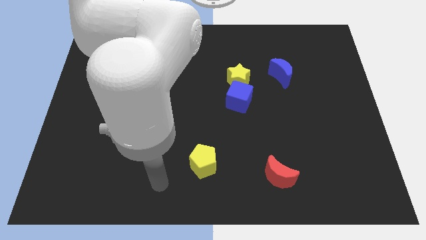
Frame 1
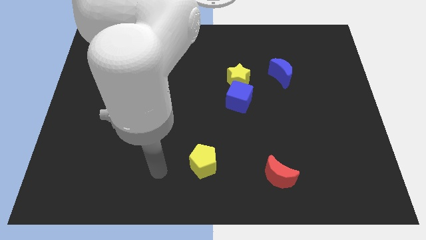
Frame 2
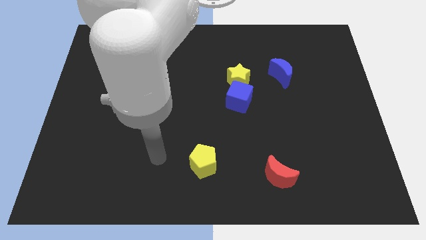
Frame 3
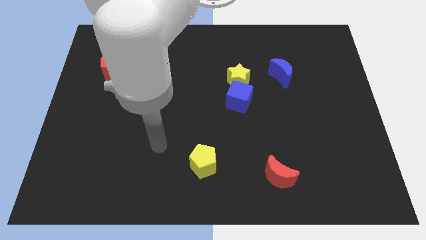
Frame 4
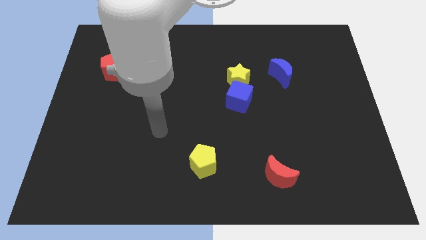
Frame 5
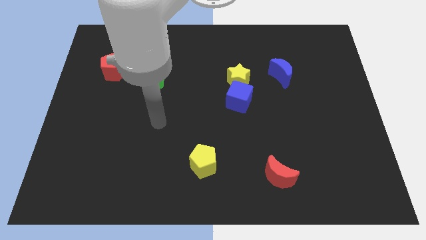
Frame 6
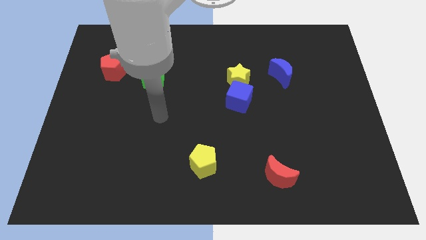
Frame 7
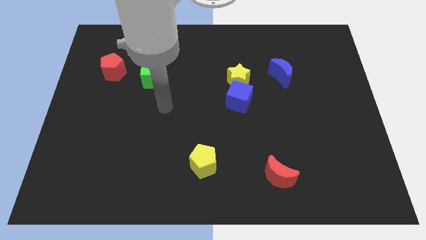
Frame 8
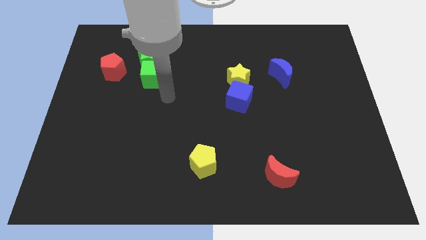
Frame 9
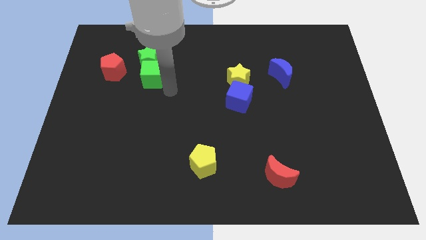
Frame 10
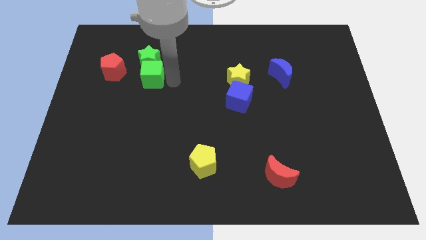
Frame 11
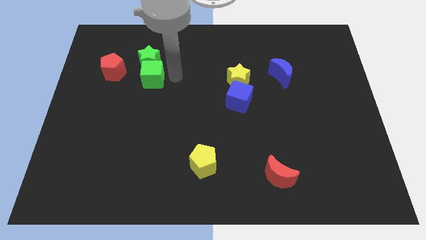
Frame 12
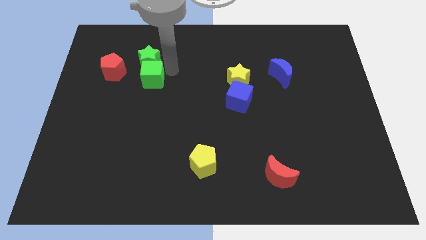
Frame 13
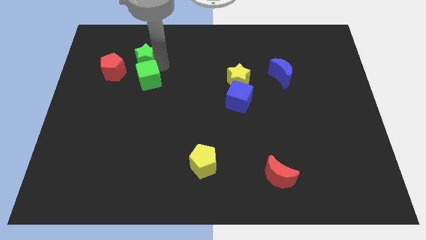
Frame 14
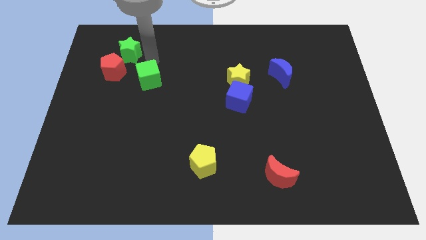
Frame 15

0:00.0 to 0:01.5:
separate the green cube from the green star

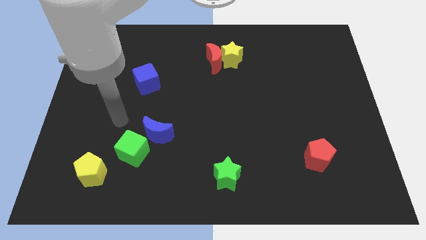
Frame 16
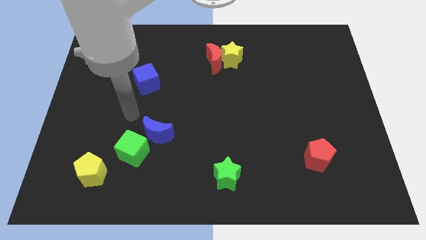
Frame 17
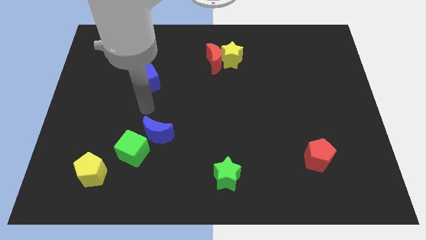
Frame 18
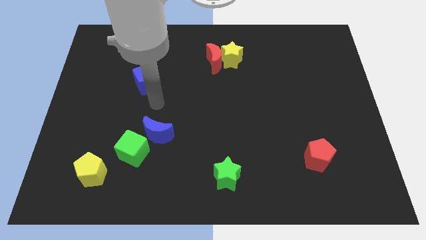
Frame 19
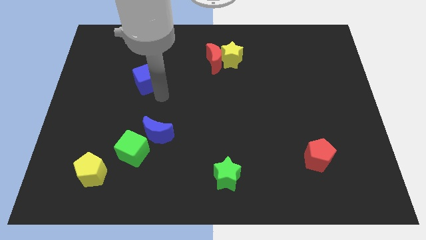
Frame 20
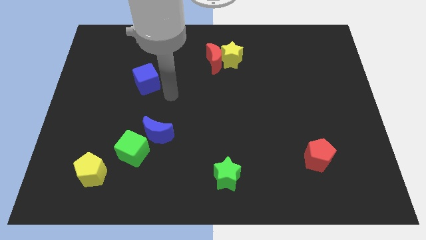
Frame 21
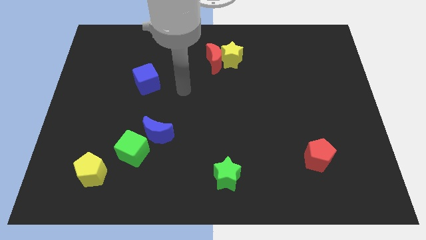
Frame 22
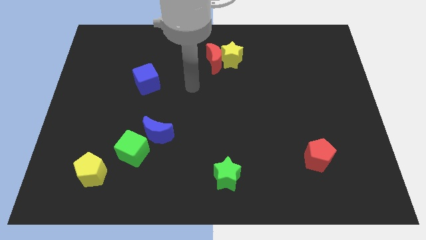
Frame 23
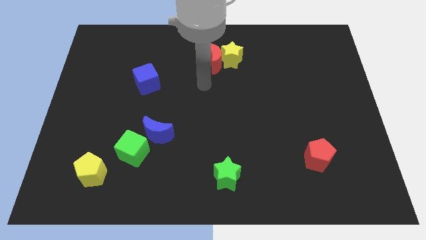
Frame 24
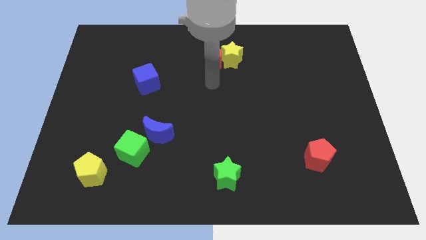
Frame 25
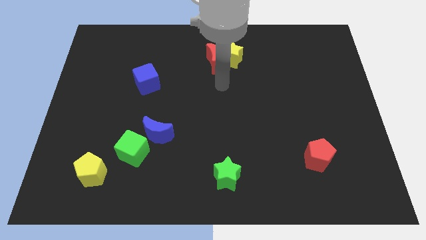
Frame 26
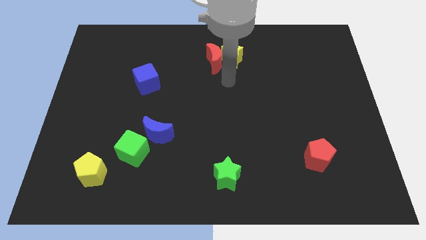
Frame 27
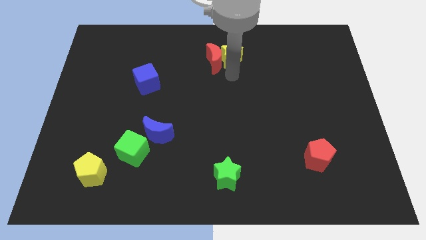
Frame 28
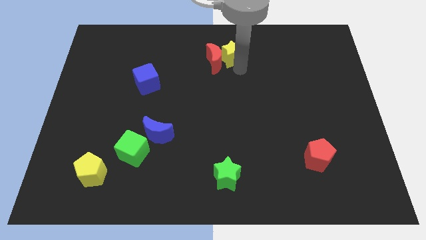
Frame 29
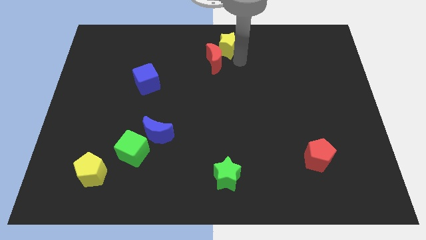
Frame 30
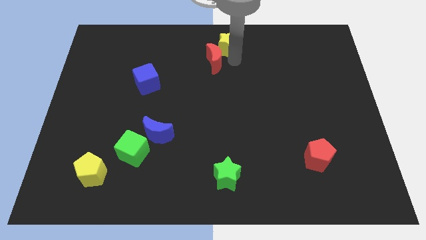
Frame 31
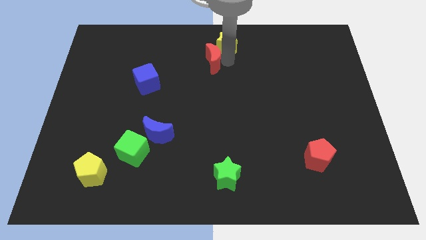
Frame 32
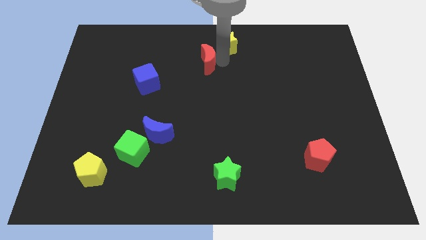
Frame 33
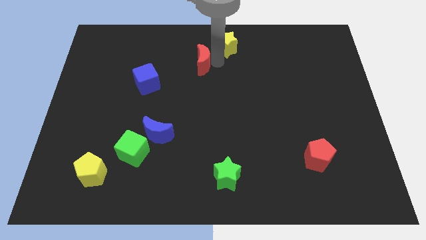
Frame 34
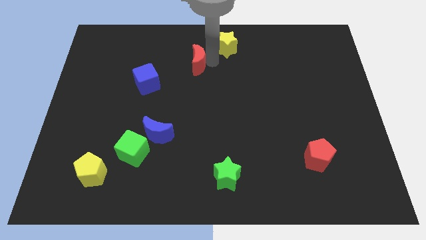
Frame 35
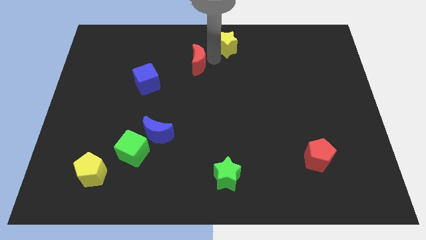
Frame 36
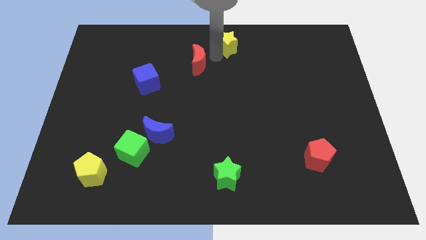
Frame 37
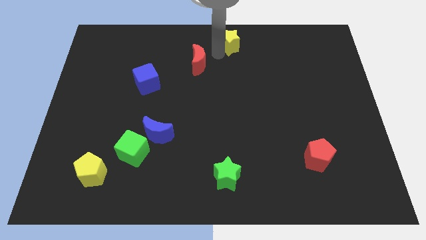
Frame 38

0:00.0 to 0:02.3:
move the red moon away from the yellow star

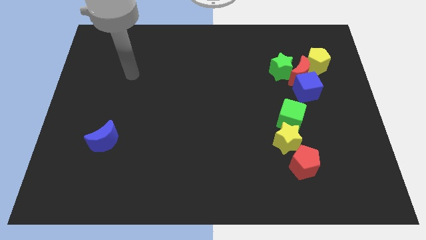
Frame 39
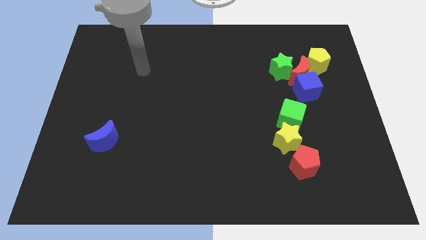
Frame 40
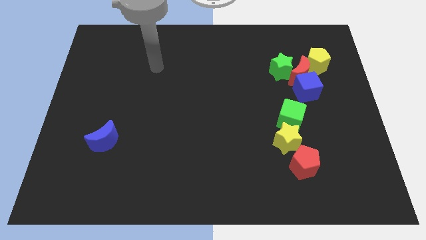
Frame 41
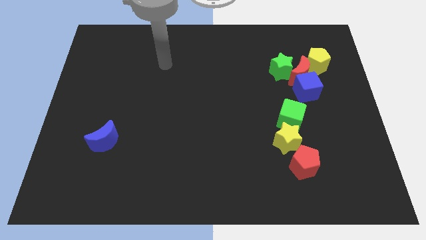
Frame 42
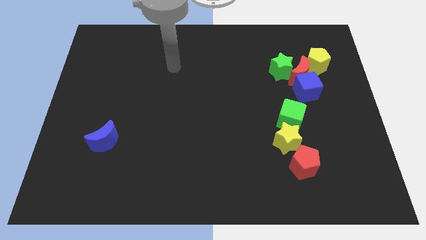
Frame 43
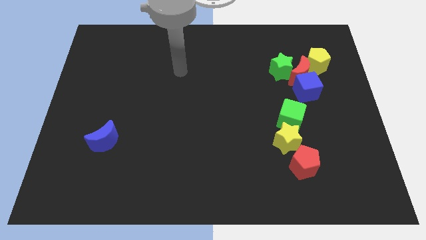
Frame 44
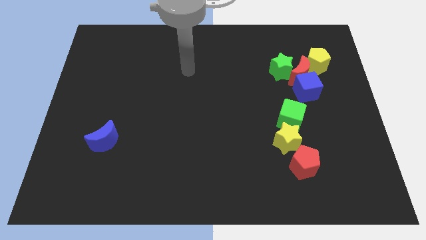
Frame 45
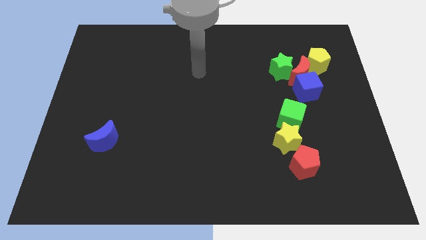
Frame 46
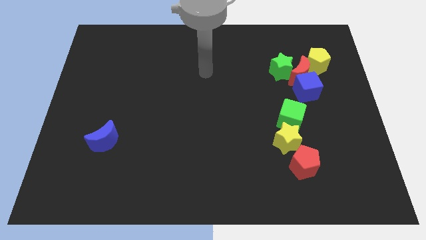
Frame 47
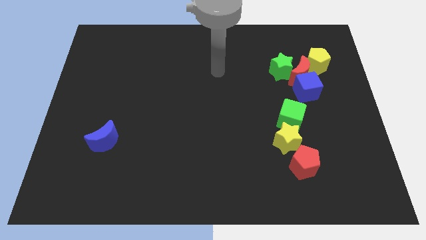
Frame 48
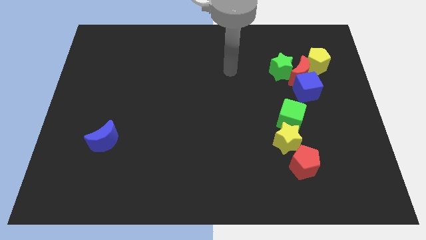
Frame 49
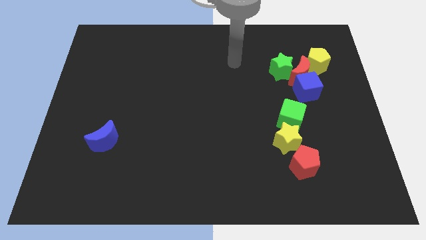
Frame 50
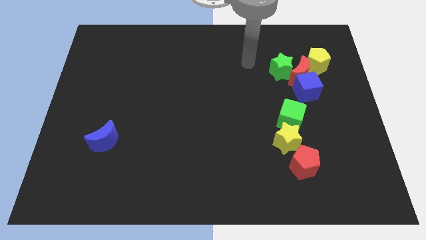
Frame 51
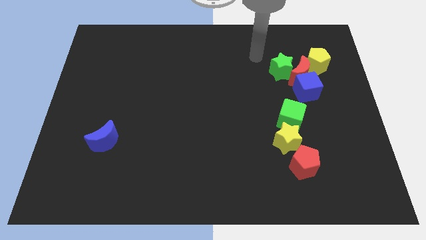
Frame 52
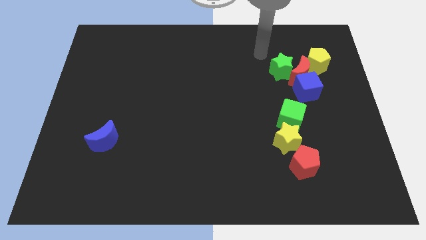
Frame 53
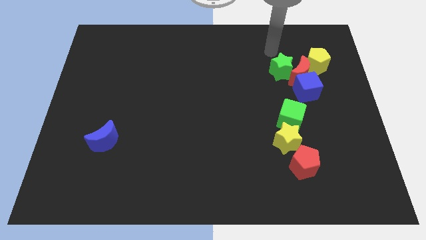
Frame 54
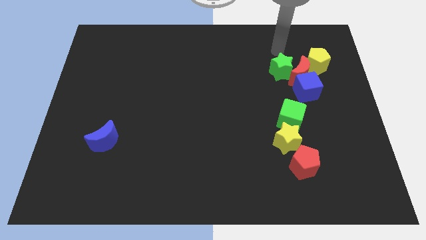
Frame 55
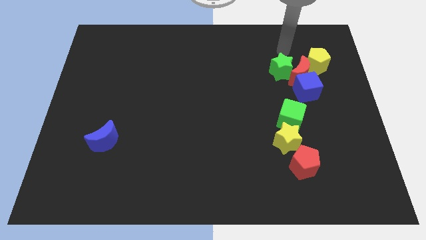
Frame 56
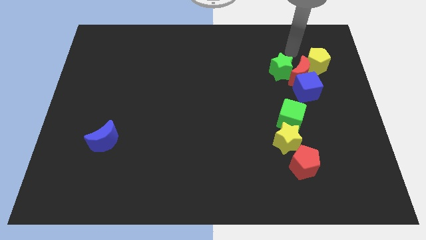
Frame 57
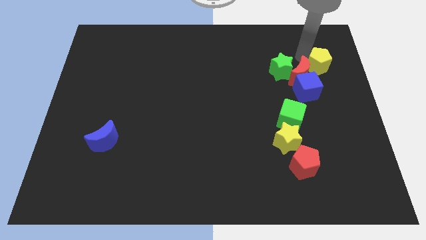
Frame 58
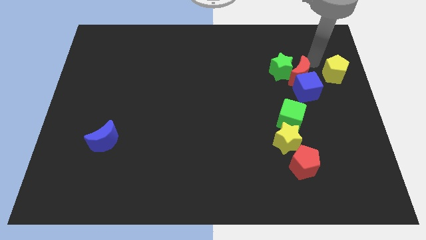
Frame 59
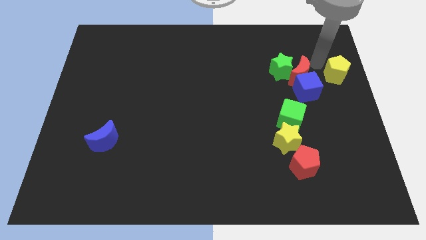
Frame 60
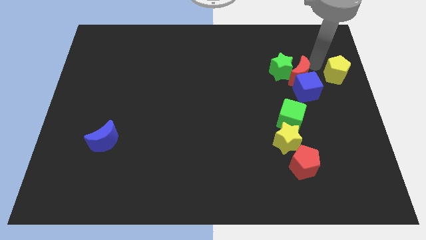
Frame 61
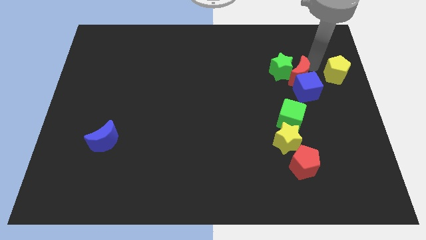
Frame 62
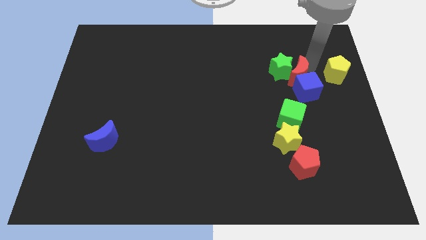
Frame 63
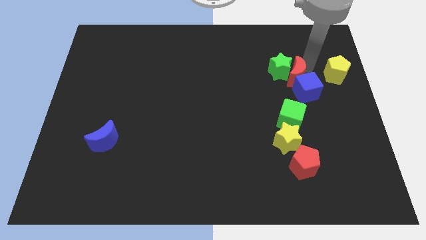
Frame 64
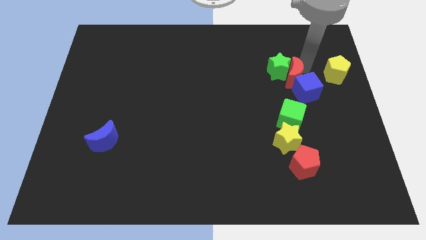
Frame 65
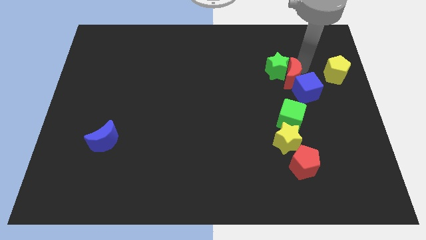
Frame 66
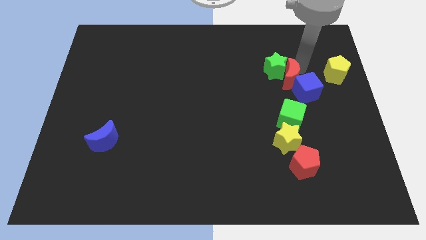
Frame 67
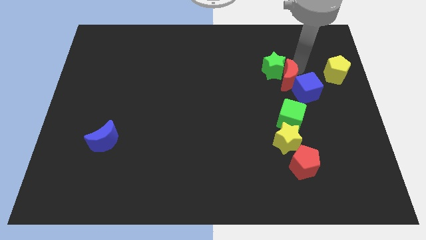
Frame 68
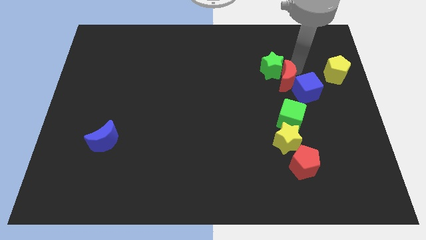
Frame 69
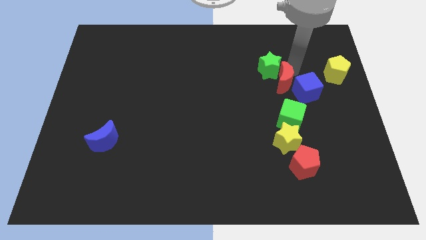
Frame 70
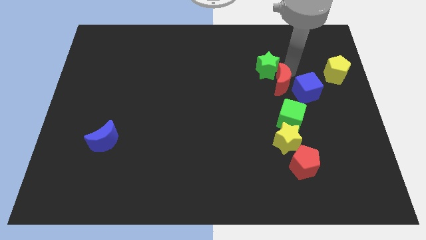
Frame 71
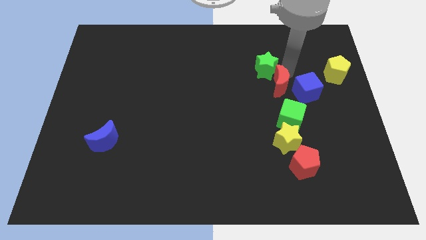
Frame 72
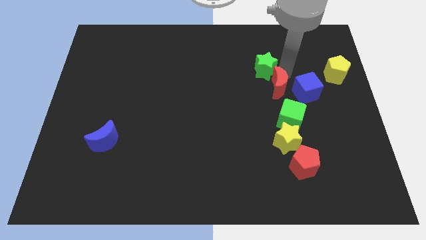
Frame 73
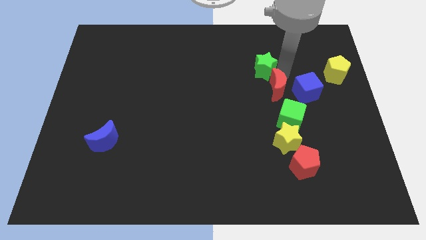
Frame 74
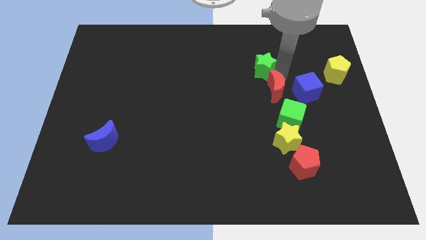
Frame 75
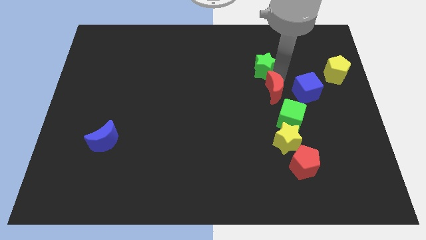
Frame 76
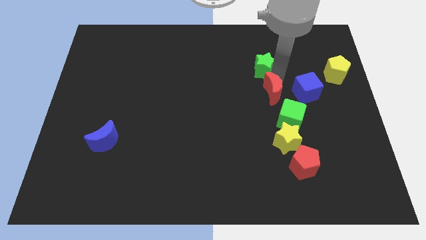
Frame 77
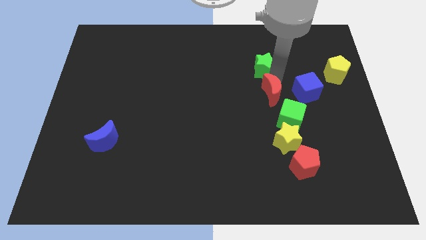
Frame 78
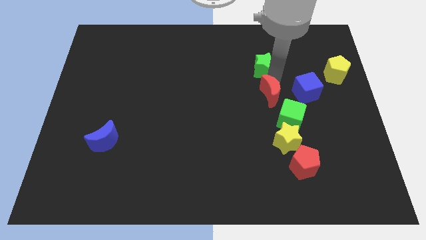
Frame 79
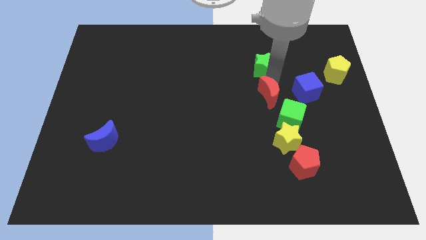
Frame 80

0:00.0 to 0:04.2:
move the red moon away from the green star, blue cube, and yellow pentagon

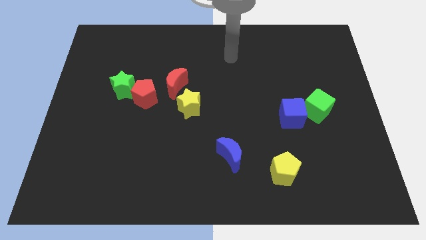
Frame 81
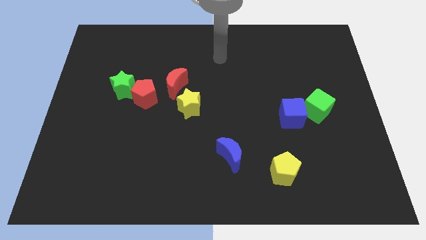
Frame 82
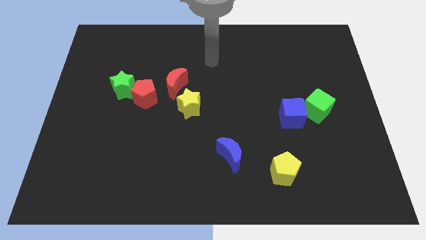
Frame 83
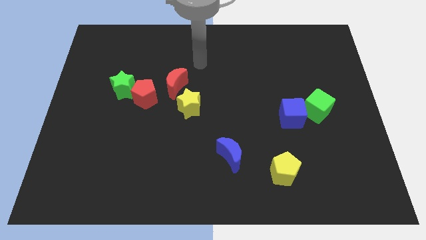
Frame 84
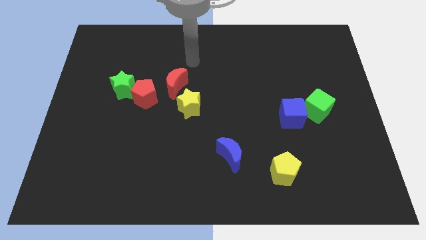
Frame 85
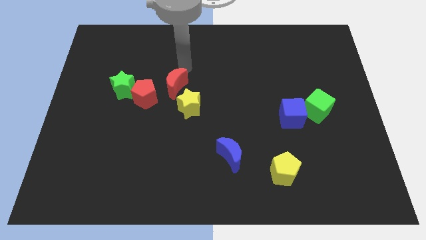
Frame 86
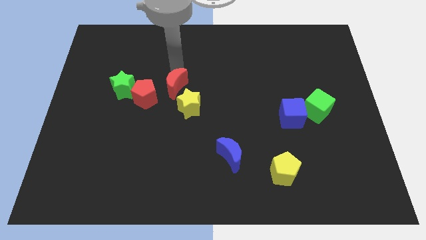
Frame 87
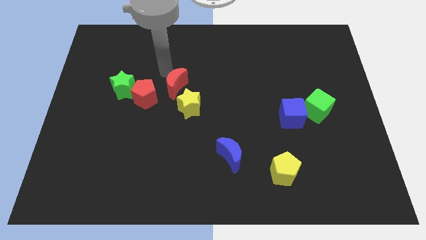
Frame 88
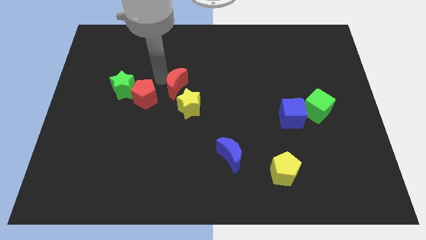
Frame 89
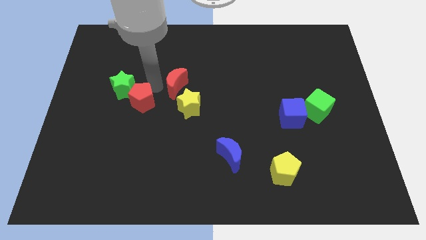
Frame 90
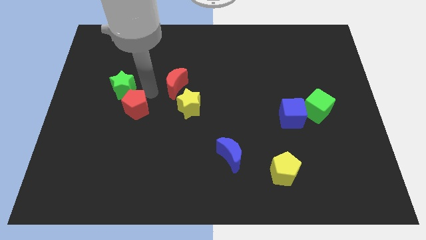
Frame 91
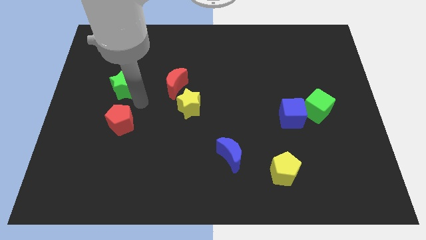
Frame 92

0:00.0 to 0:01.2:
move the green star away from the red pentagon

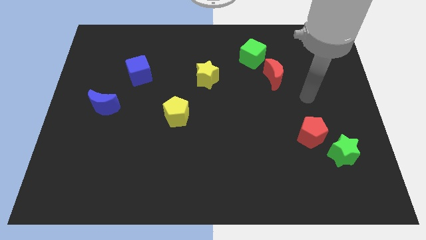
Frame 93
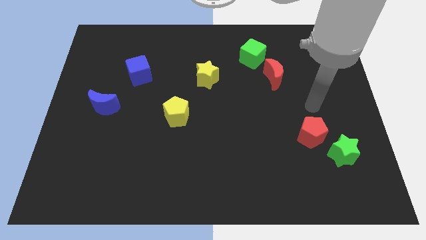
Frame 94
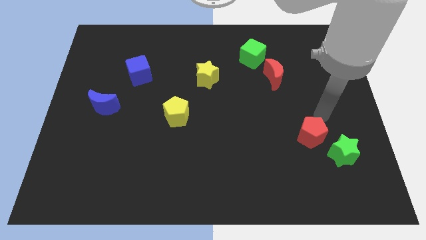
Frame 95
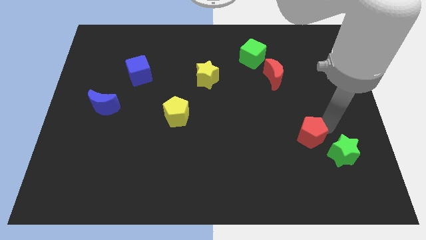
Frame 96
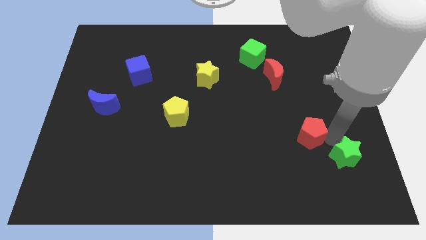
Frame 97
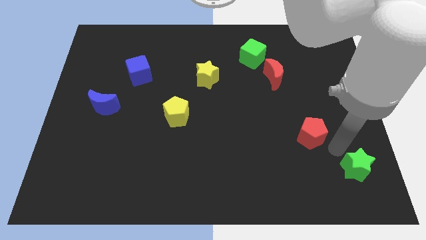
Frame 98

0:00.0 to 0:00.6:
move the red pentagon away from the green star
